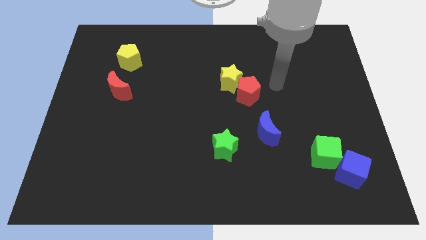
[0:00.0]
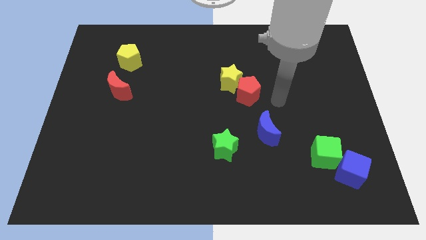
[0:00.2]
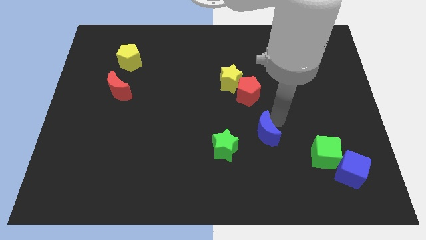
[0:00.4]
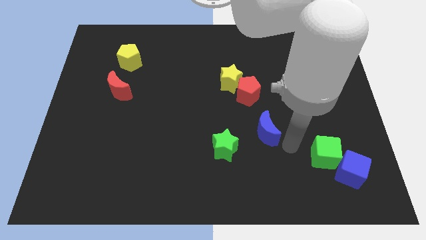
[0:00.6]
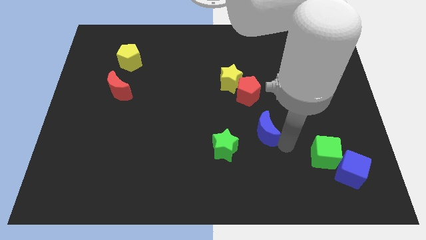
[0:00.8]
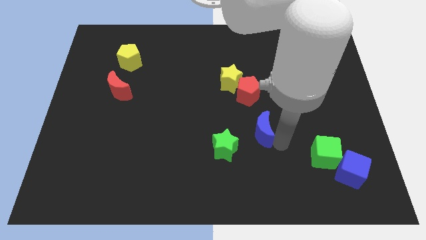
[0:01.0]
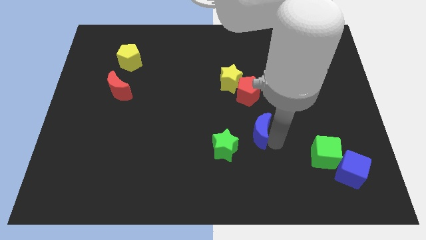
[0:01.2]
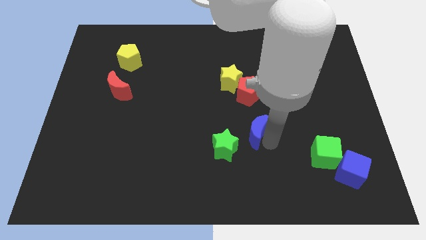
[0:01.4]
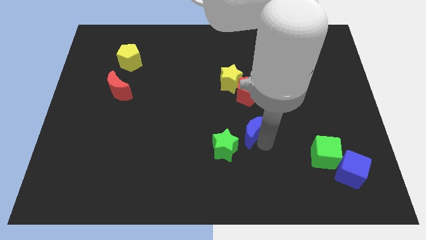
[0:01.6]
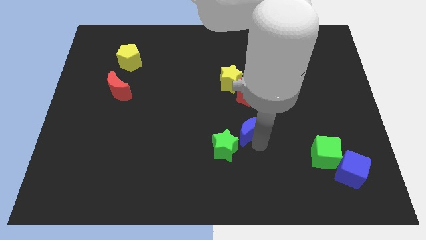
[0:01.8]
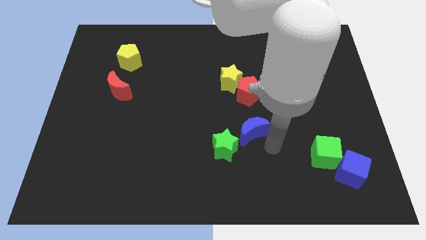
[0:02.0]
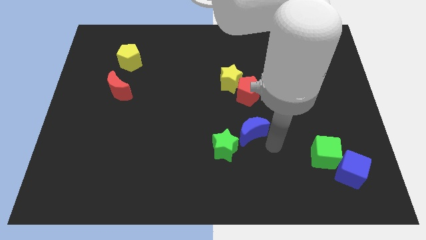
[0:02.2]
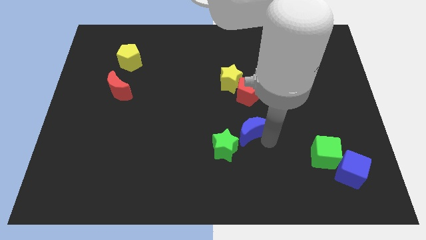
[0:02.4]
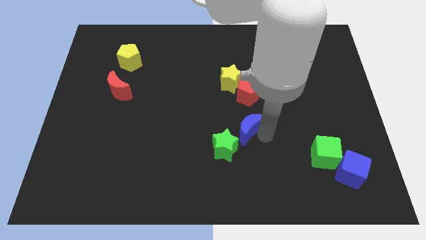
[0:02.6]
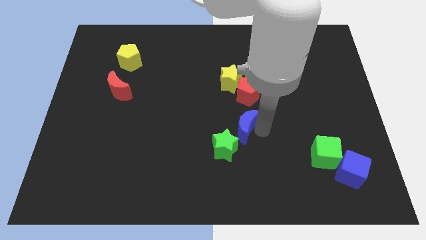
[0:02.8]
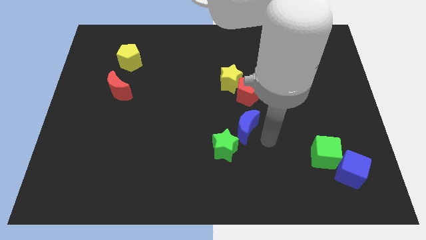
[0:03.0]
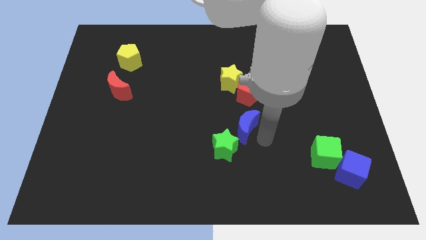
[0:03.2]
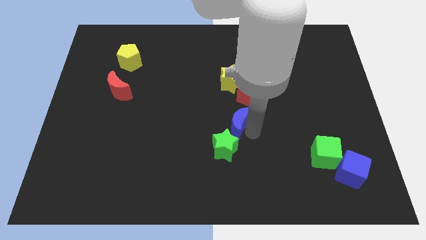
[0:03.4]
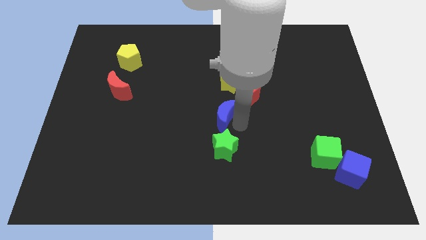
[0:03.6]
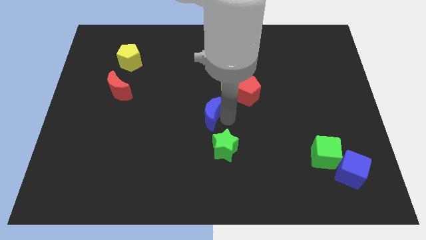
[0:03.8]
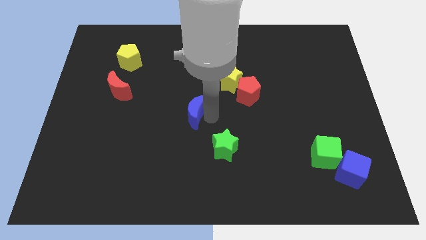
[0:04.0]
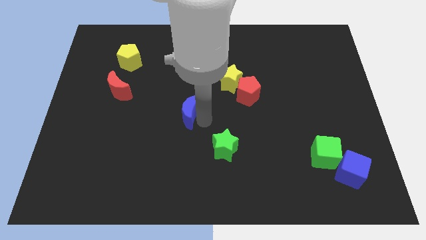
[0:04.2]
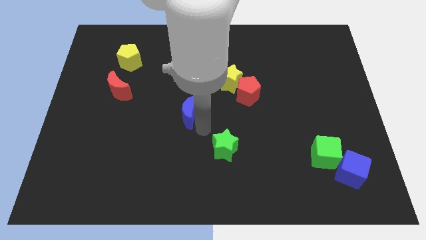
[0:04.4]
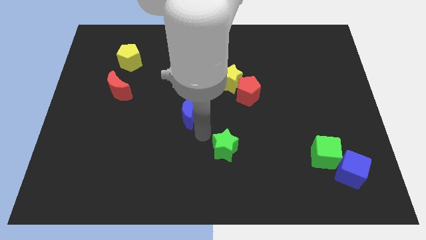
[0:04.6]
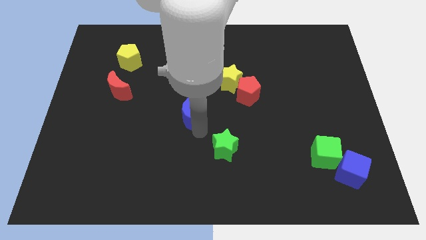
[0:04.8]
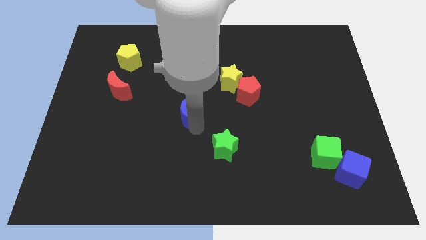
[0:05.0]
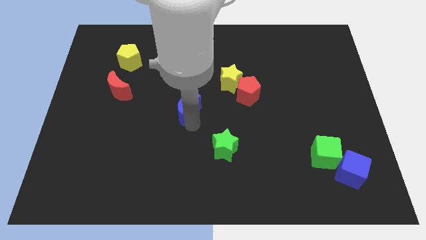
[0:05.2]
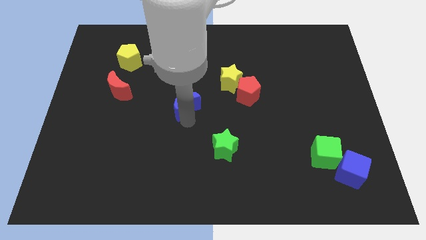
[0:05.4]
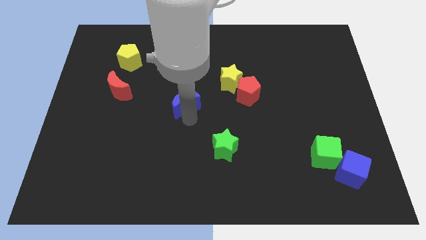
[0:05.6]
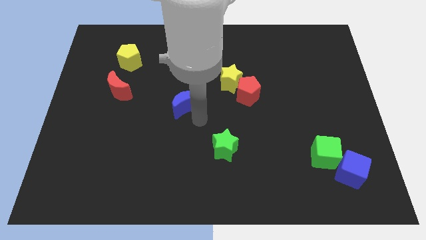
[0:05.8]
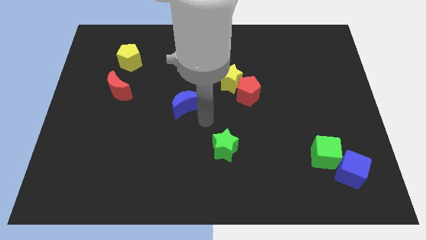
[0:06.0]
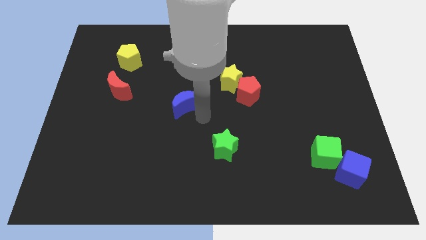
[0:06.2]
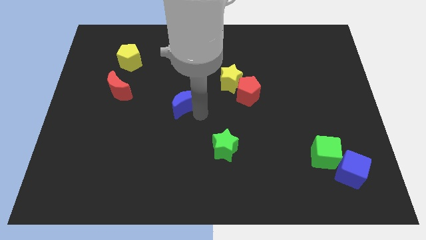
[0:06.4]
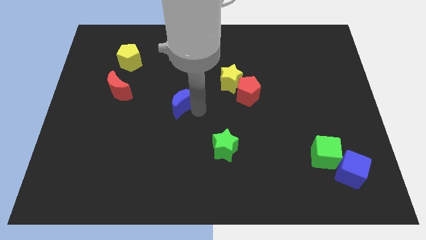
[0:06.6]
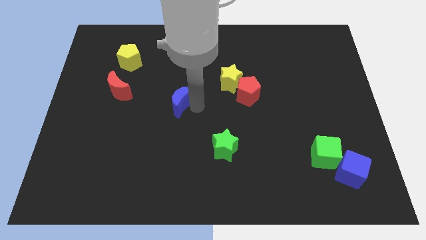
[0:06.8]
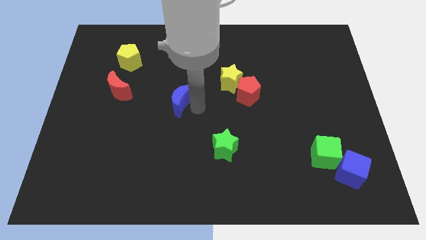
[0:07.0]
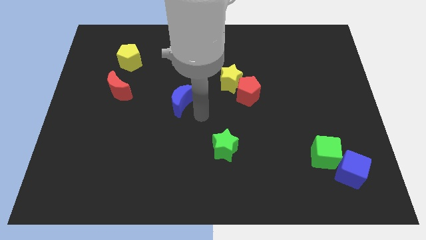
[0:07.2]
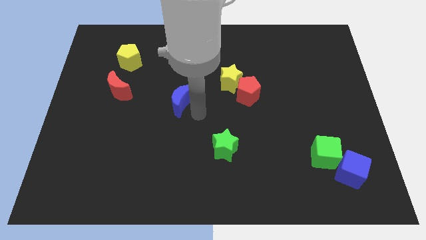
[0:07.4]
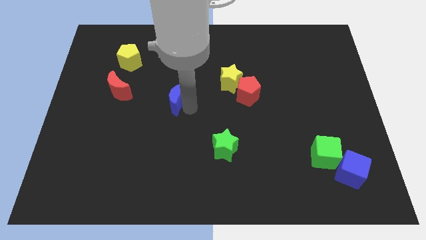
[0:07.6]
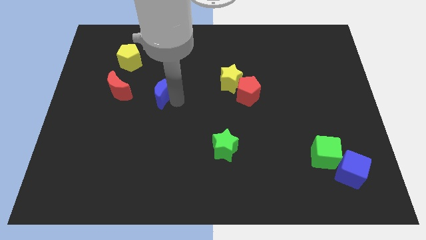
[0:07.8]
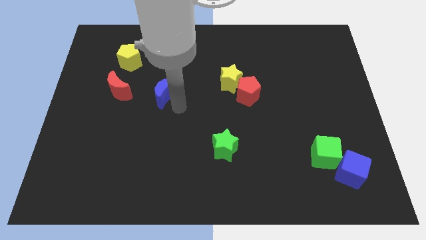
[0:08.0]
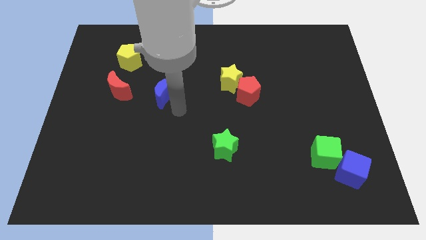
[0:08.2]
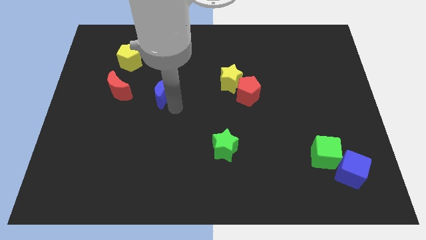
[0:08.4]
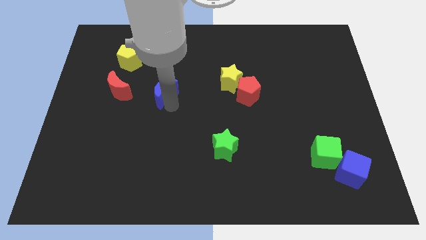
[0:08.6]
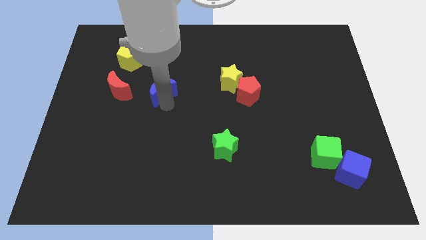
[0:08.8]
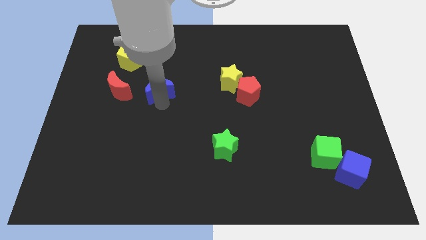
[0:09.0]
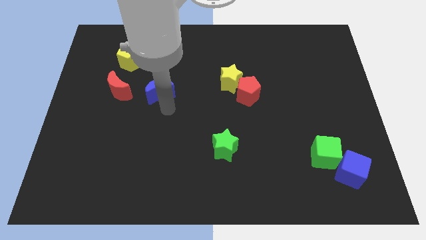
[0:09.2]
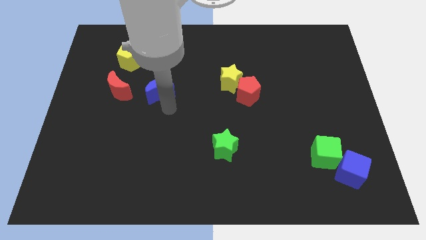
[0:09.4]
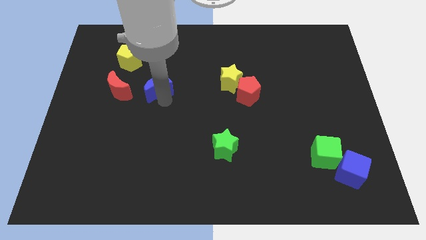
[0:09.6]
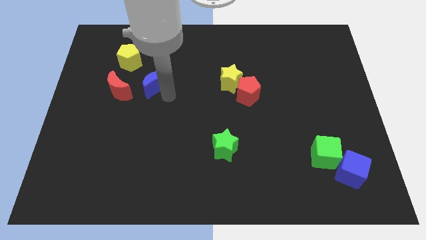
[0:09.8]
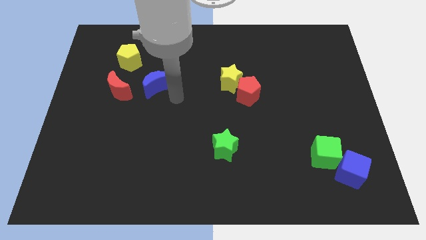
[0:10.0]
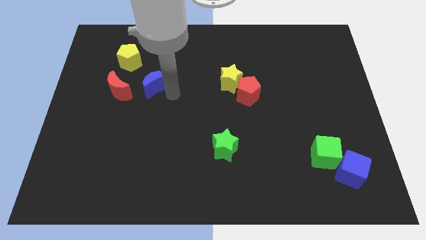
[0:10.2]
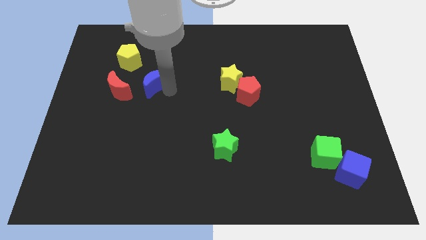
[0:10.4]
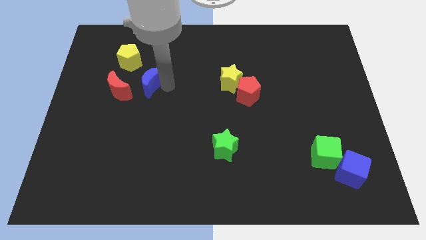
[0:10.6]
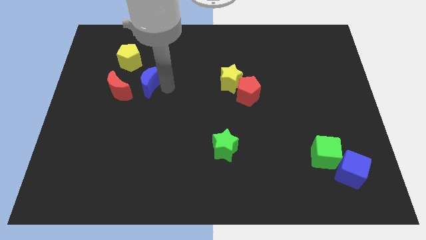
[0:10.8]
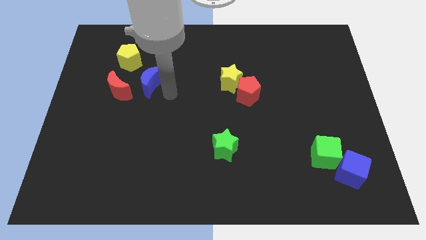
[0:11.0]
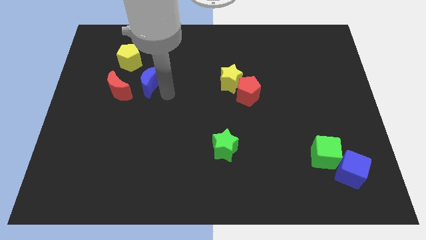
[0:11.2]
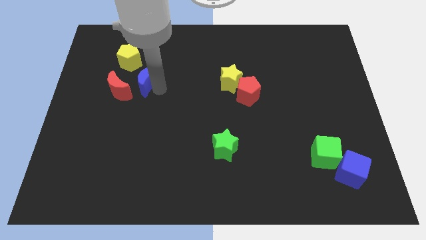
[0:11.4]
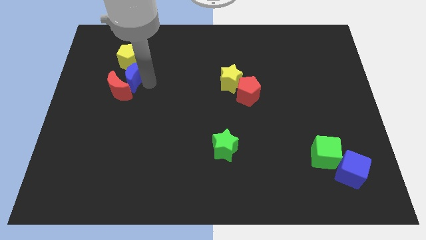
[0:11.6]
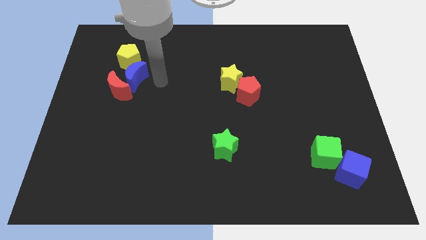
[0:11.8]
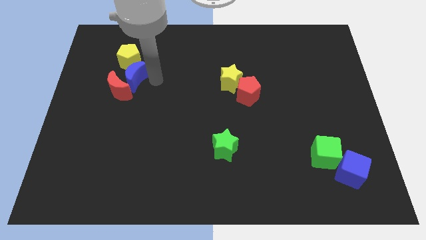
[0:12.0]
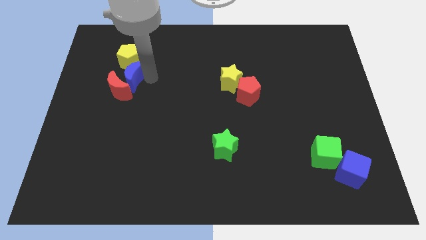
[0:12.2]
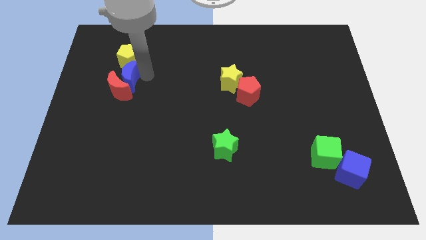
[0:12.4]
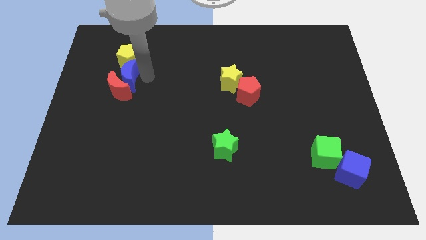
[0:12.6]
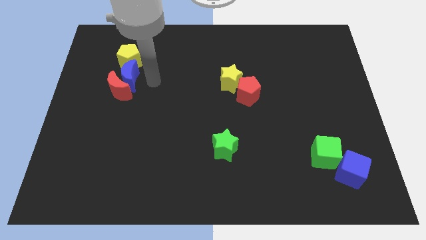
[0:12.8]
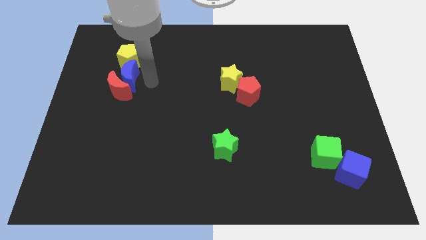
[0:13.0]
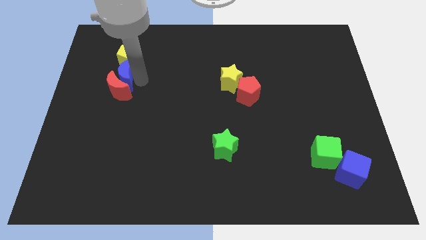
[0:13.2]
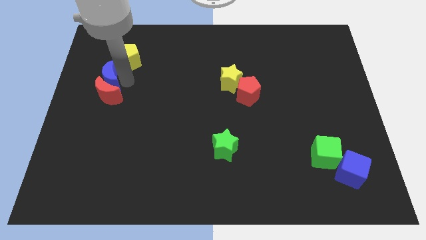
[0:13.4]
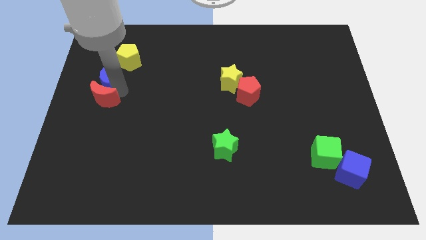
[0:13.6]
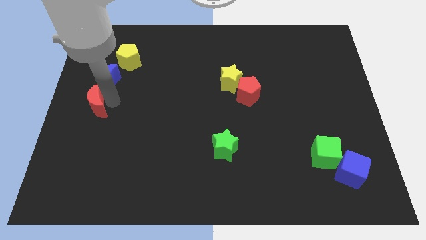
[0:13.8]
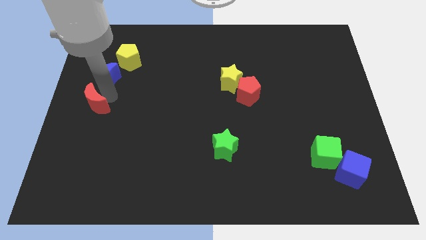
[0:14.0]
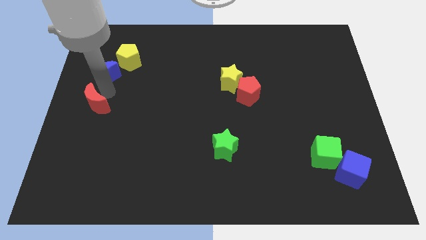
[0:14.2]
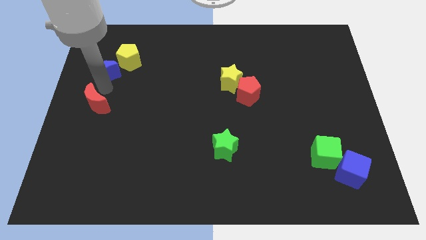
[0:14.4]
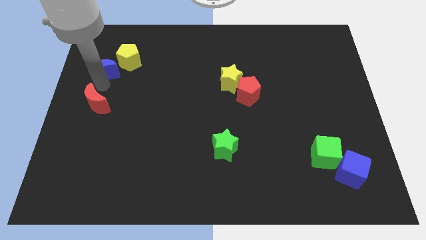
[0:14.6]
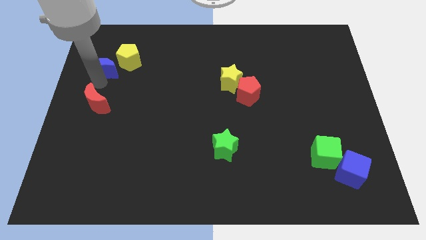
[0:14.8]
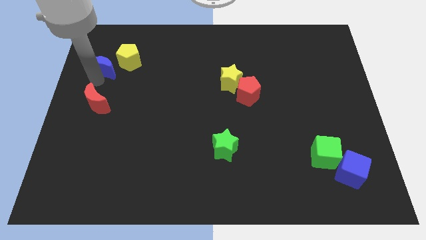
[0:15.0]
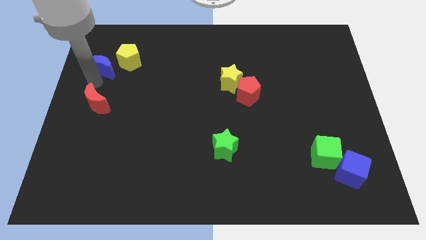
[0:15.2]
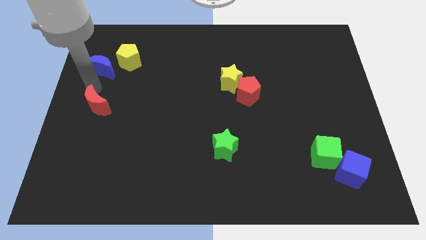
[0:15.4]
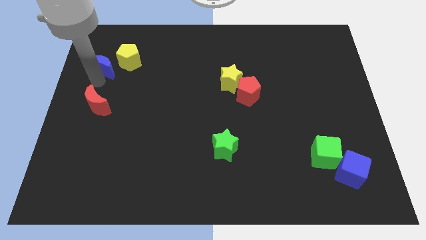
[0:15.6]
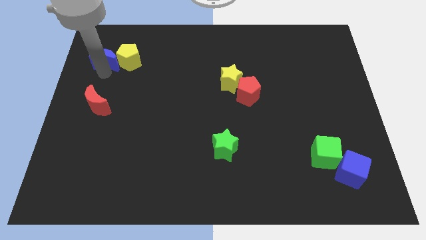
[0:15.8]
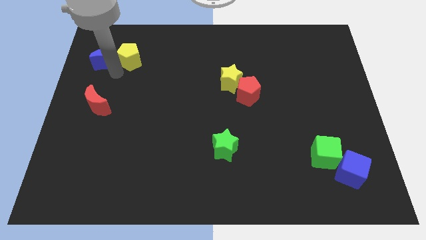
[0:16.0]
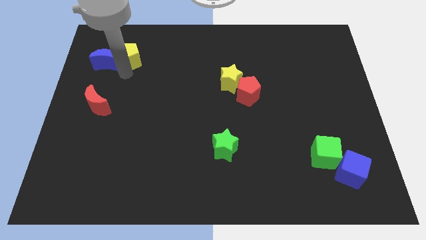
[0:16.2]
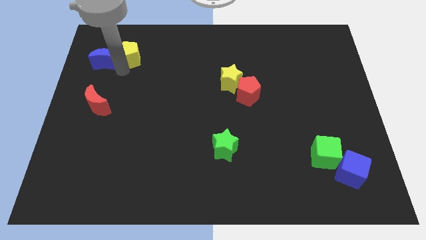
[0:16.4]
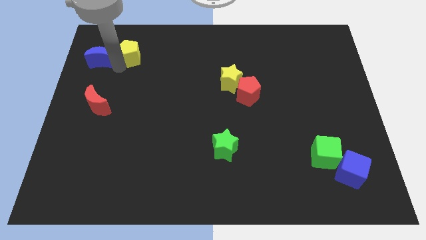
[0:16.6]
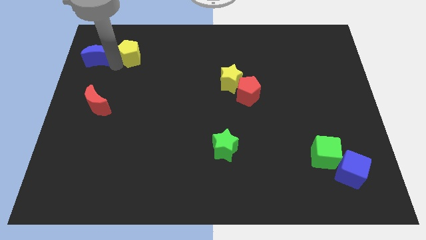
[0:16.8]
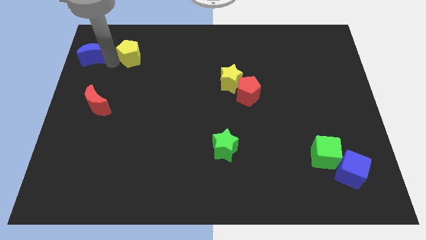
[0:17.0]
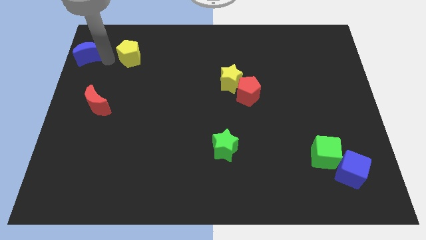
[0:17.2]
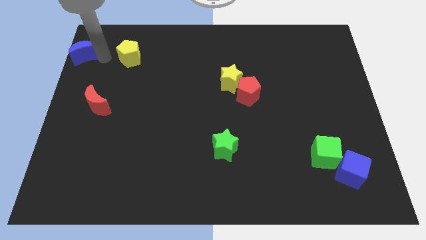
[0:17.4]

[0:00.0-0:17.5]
slide the blue moon to the upper left corner
